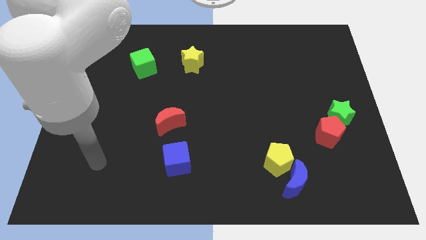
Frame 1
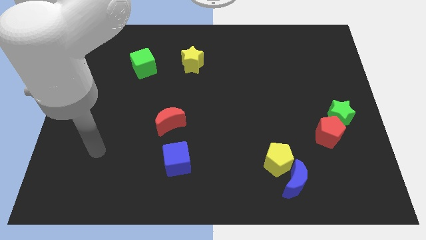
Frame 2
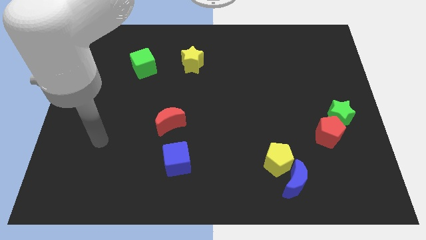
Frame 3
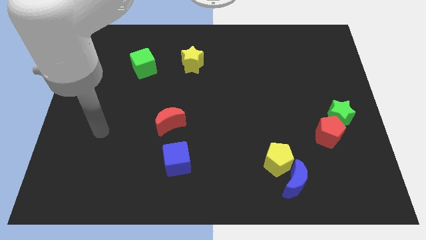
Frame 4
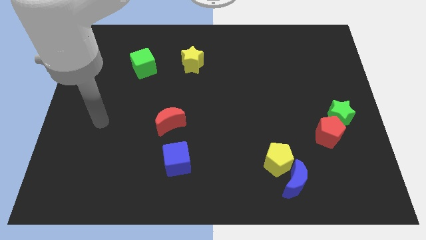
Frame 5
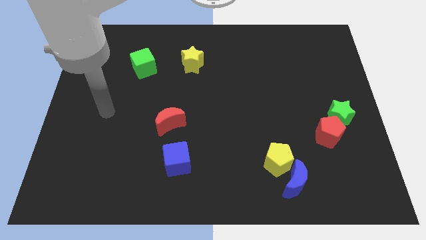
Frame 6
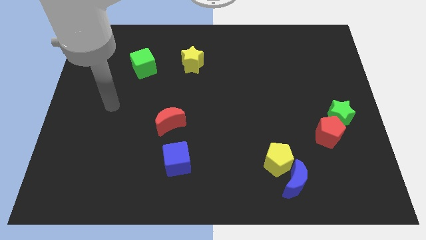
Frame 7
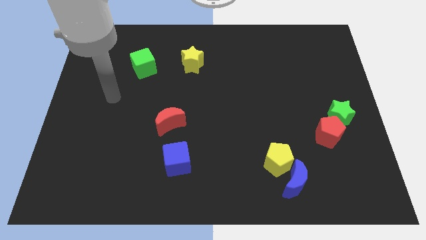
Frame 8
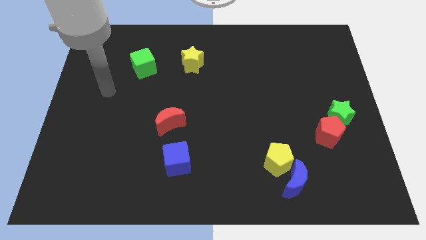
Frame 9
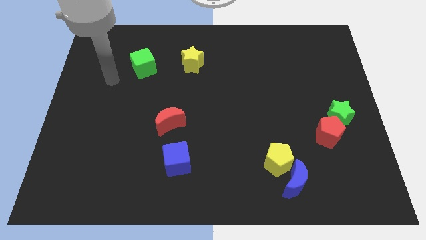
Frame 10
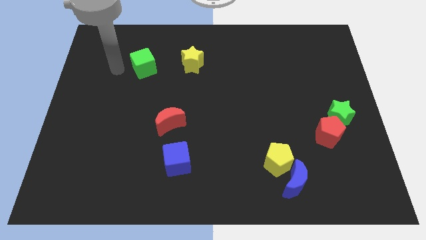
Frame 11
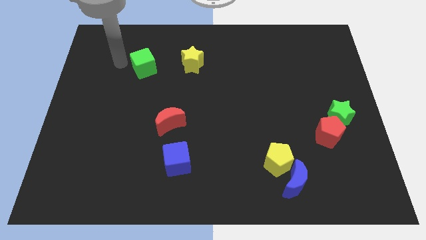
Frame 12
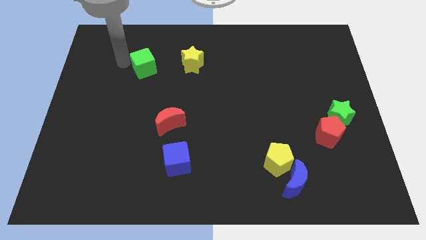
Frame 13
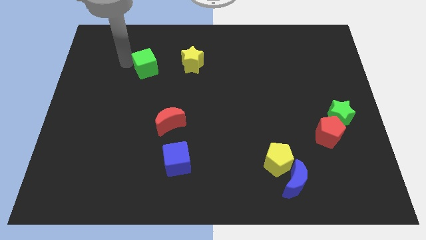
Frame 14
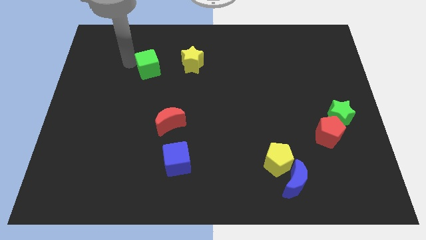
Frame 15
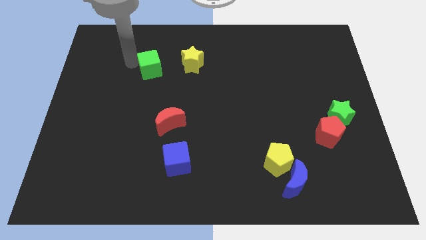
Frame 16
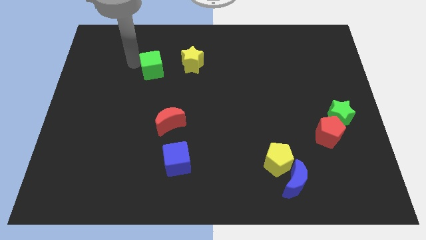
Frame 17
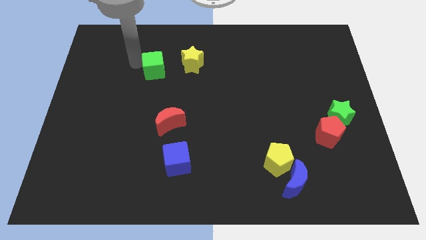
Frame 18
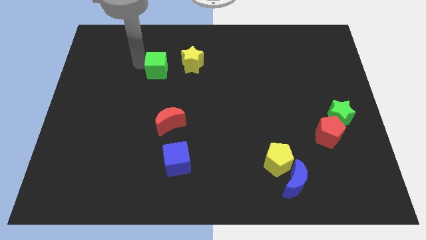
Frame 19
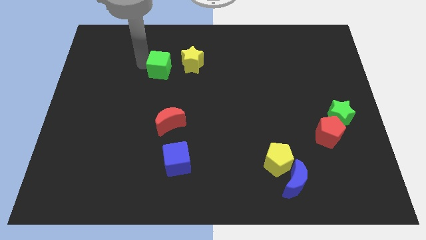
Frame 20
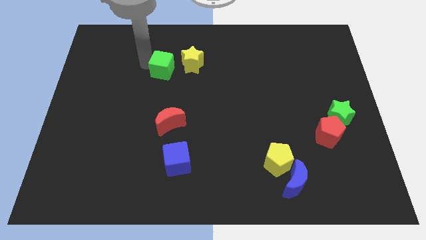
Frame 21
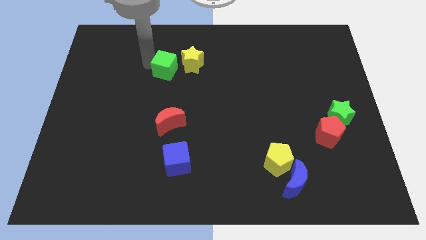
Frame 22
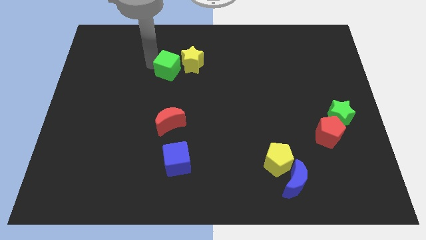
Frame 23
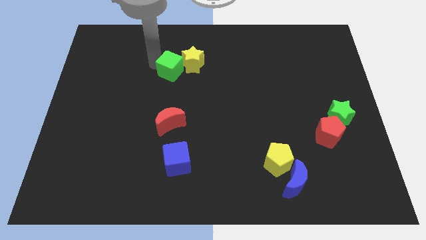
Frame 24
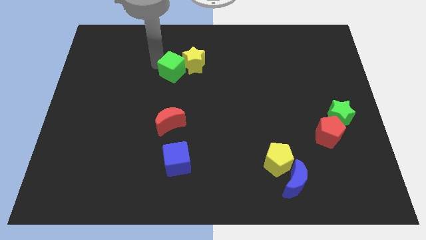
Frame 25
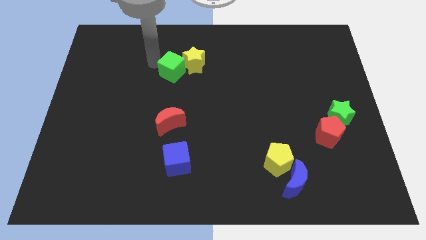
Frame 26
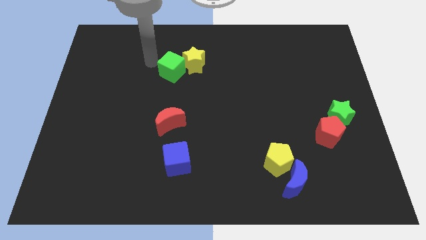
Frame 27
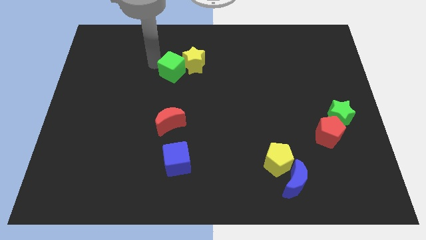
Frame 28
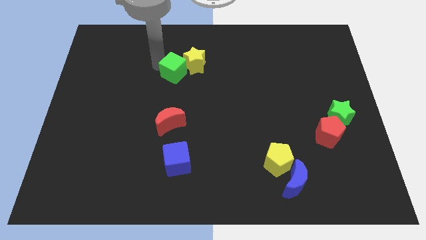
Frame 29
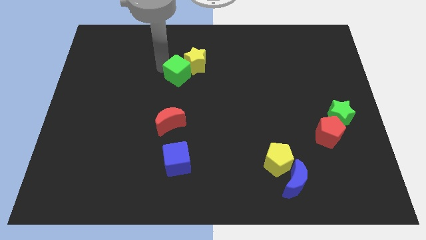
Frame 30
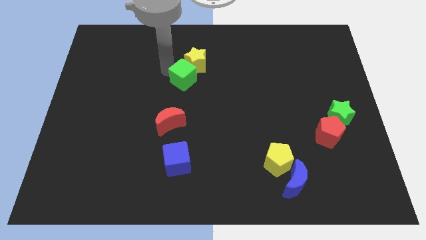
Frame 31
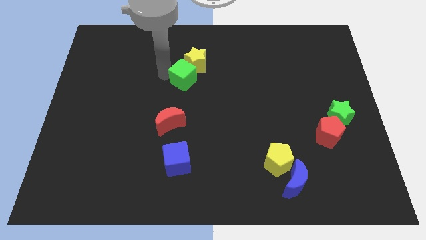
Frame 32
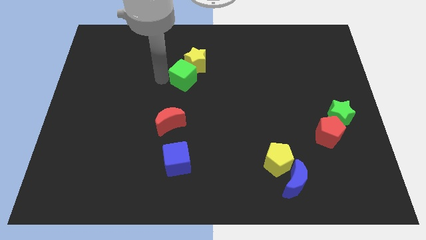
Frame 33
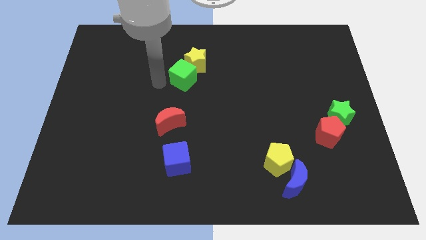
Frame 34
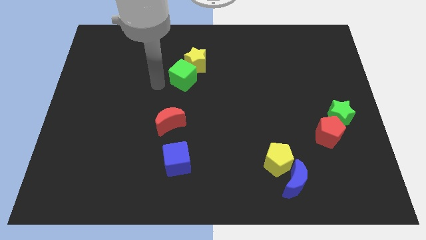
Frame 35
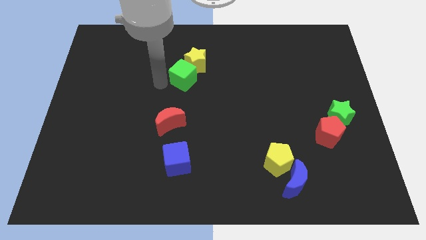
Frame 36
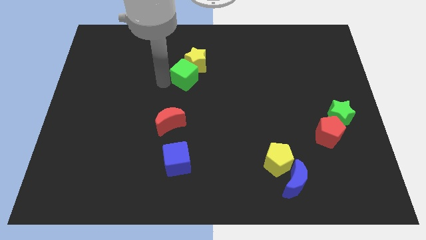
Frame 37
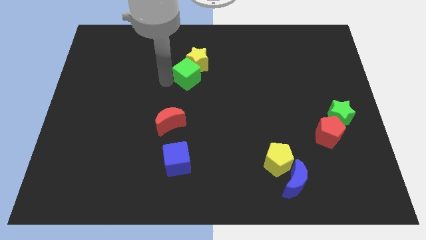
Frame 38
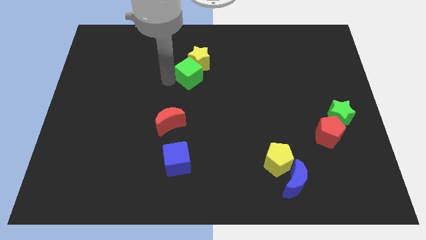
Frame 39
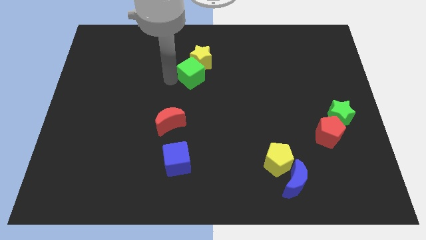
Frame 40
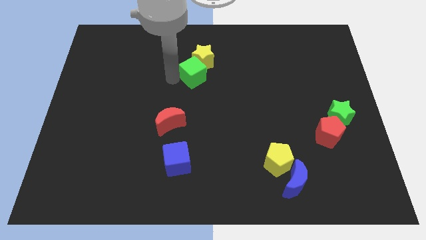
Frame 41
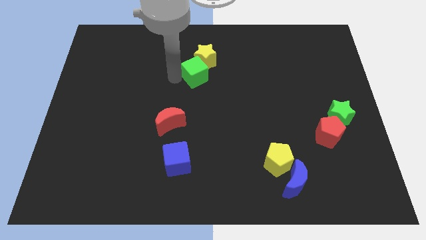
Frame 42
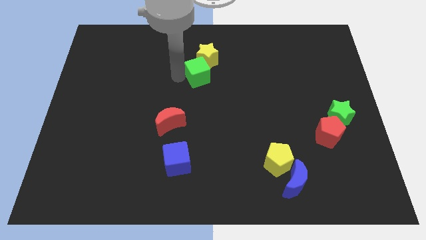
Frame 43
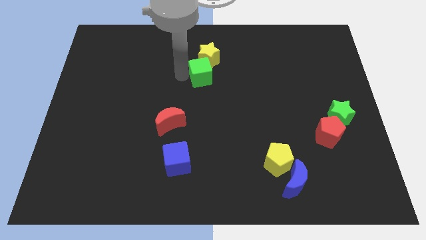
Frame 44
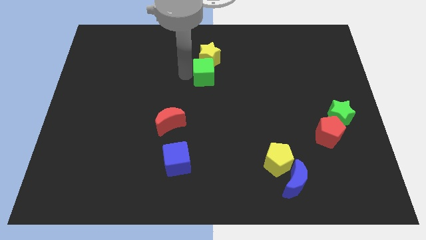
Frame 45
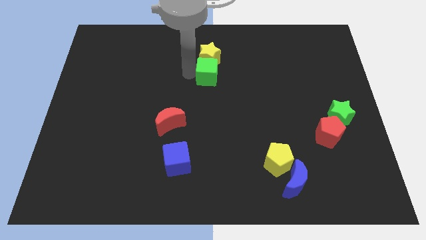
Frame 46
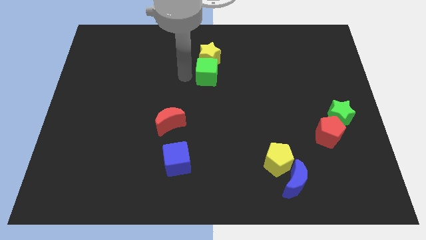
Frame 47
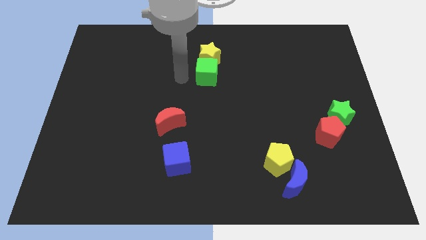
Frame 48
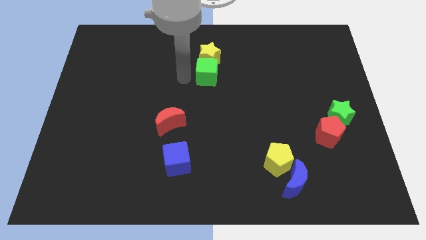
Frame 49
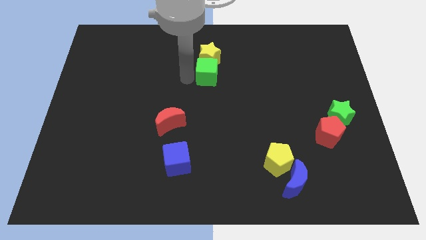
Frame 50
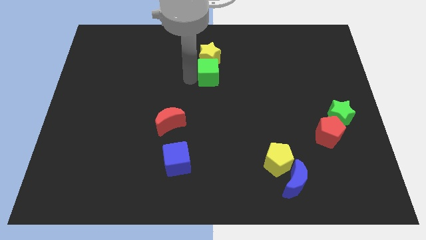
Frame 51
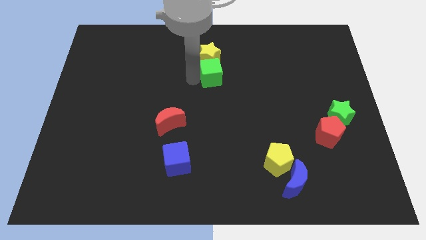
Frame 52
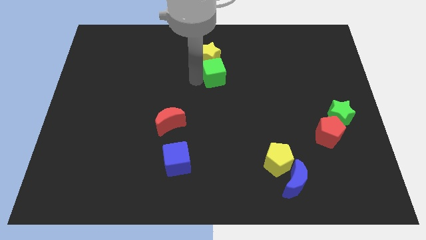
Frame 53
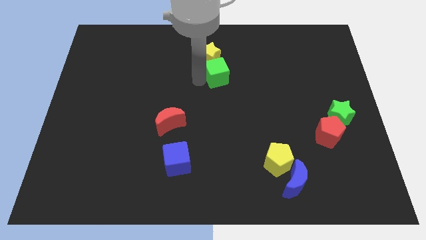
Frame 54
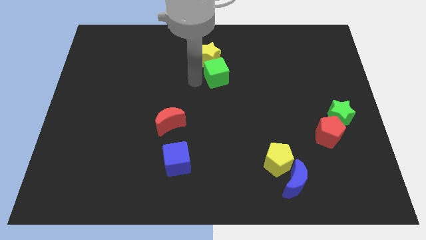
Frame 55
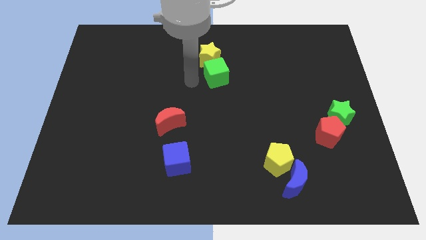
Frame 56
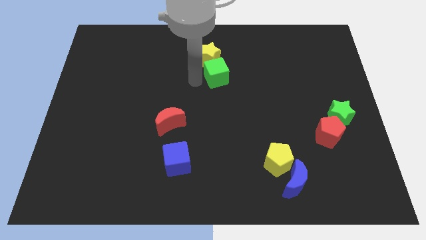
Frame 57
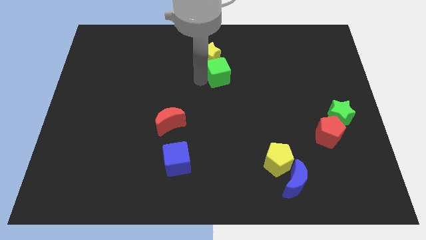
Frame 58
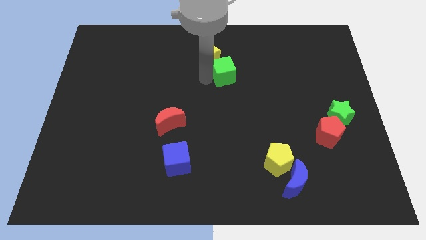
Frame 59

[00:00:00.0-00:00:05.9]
push the green cube to the right

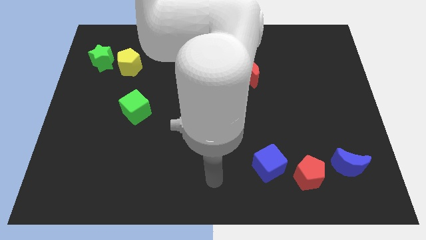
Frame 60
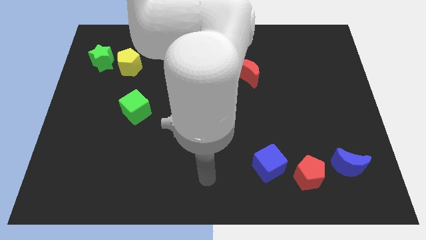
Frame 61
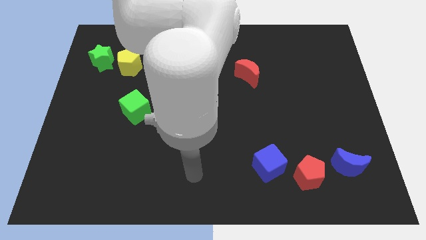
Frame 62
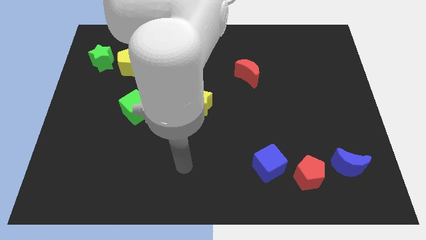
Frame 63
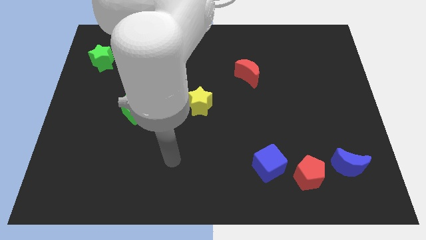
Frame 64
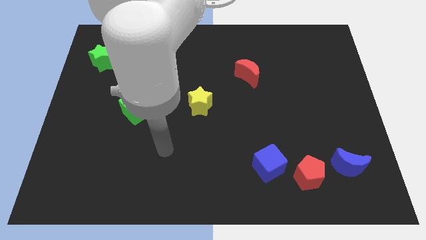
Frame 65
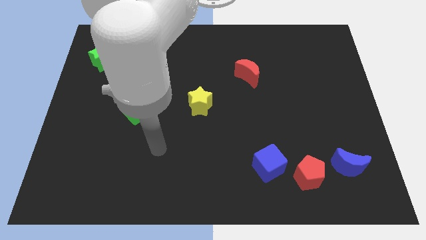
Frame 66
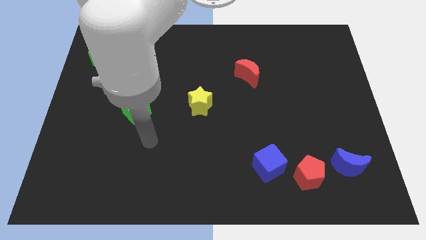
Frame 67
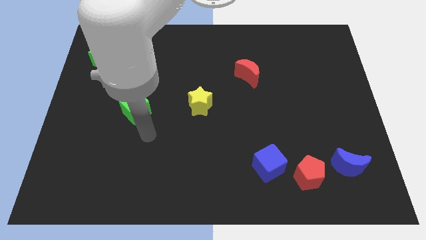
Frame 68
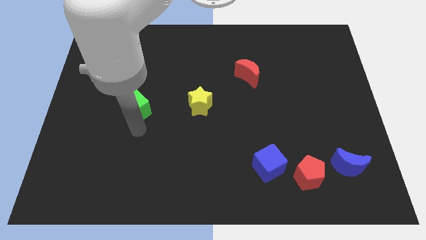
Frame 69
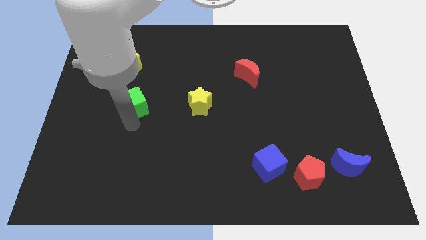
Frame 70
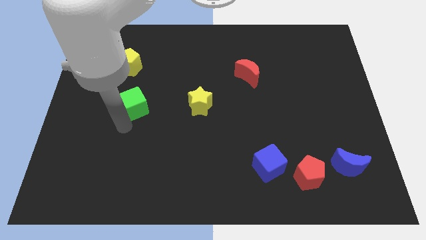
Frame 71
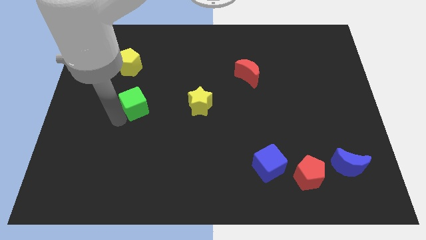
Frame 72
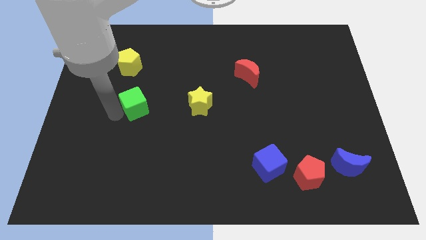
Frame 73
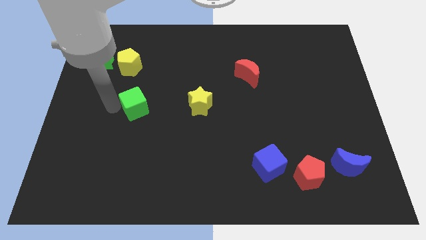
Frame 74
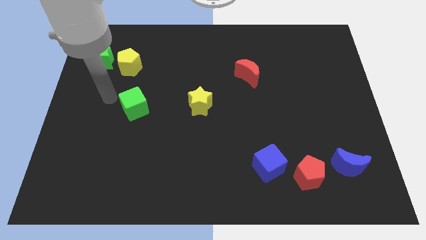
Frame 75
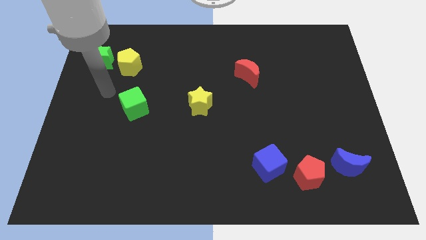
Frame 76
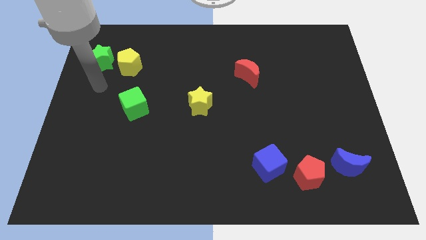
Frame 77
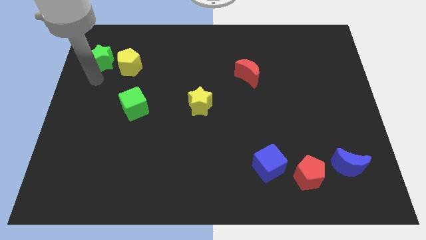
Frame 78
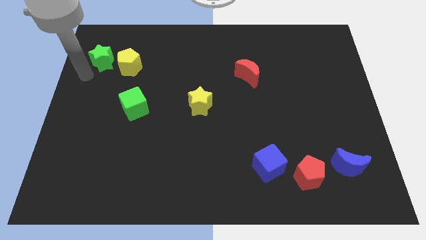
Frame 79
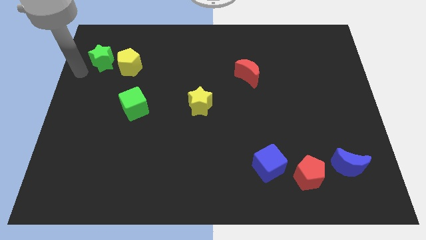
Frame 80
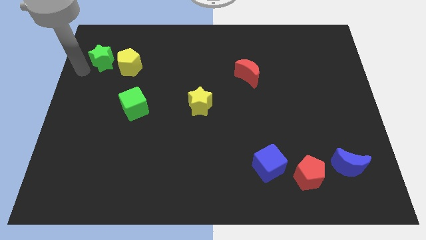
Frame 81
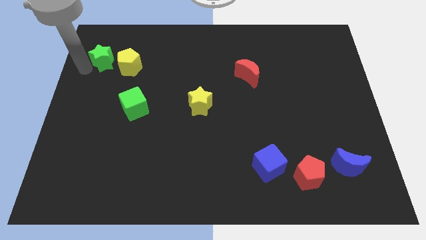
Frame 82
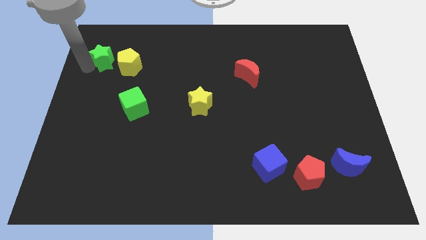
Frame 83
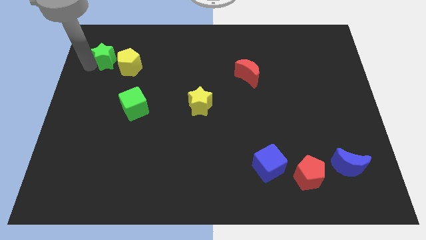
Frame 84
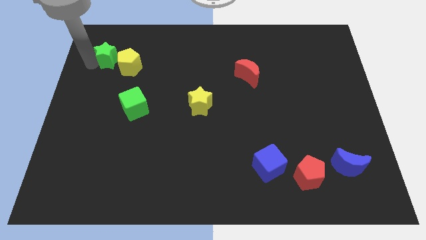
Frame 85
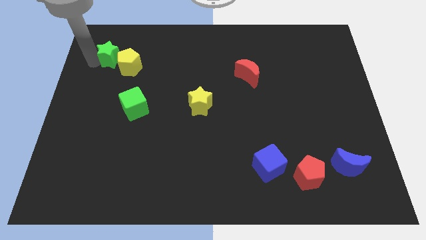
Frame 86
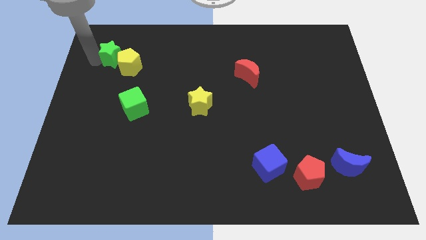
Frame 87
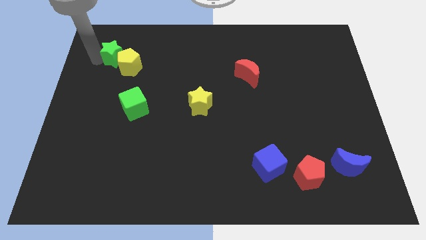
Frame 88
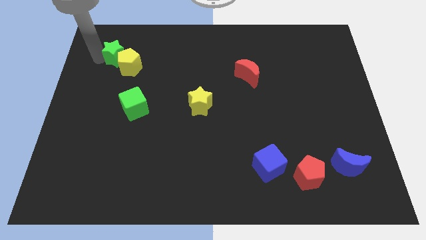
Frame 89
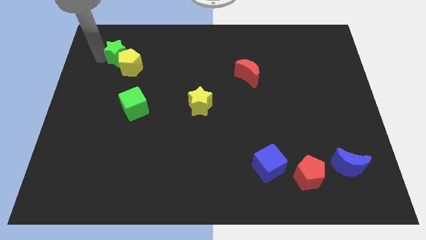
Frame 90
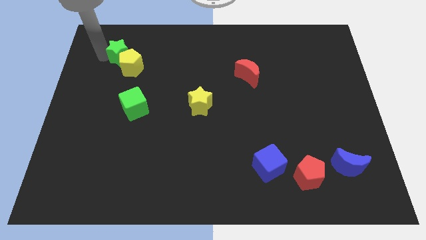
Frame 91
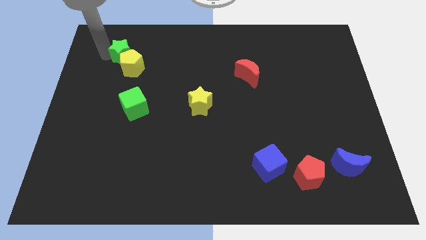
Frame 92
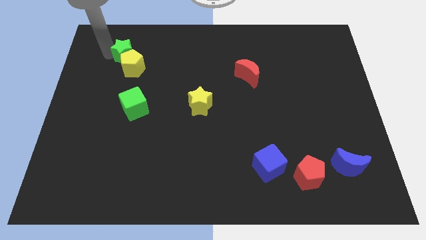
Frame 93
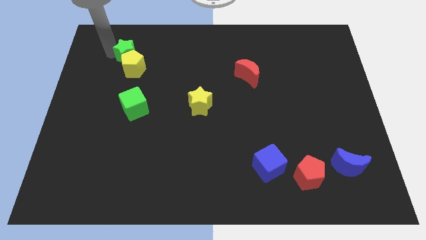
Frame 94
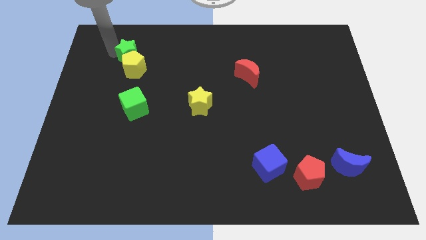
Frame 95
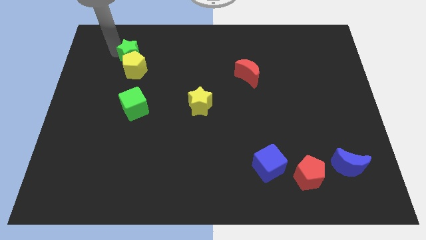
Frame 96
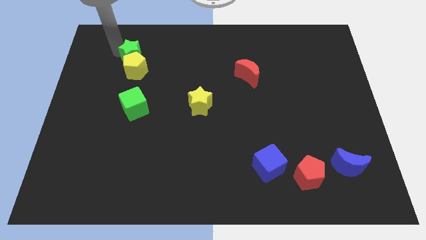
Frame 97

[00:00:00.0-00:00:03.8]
move the green star a little bit to the right
